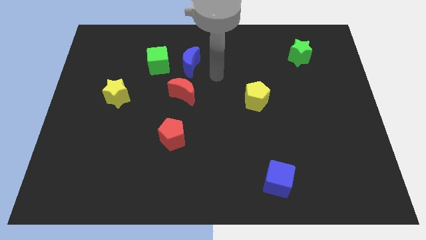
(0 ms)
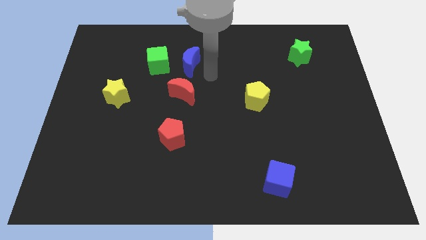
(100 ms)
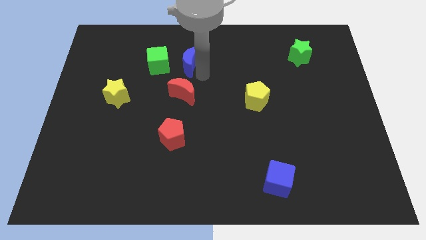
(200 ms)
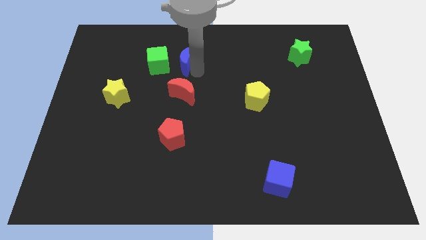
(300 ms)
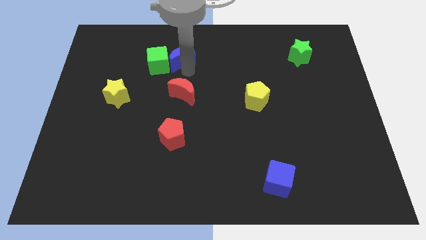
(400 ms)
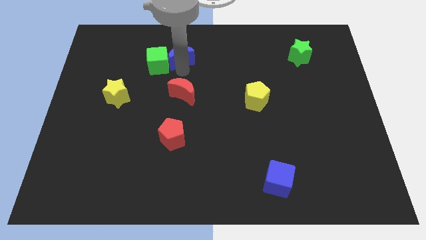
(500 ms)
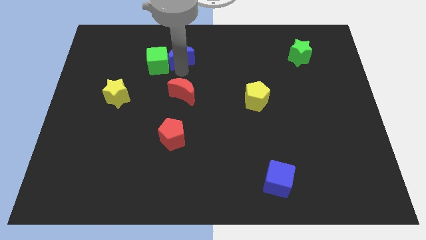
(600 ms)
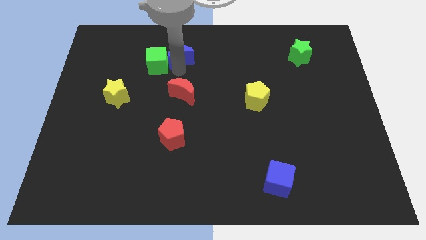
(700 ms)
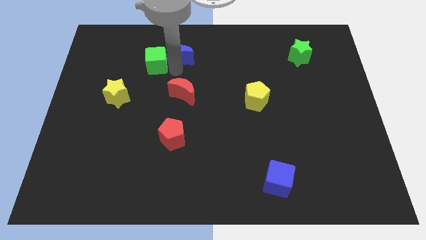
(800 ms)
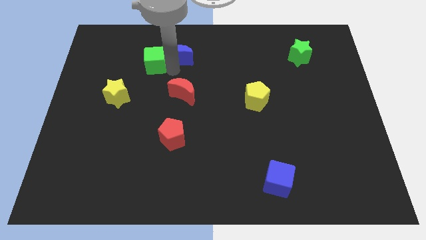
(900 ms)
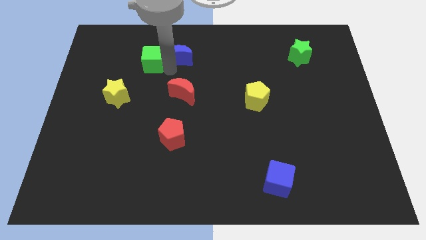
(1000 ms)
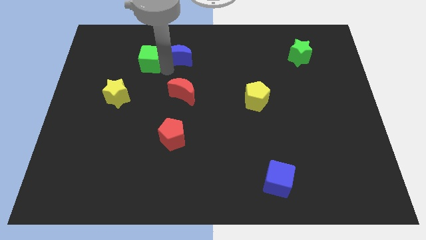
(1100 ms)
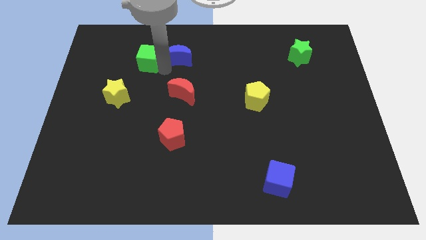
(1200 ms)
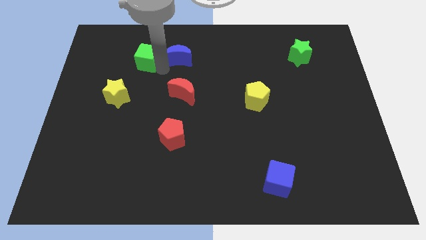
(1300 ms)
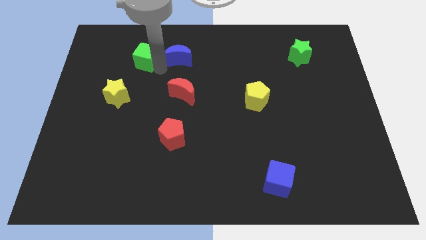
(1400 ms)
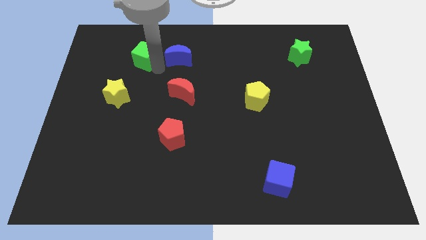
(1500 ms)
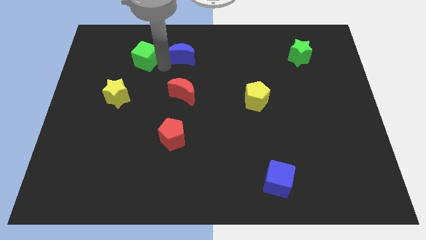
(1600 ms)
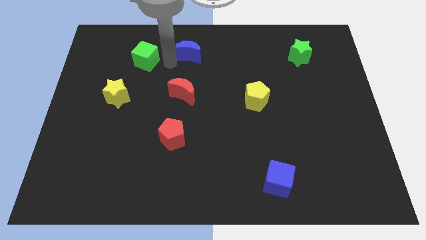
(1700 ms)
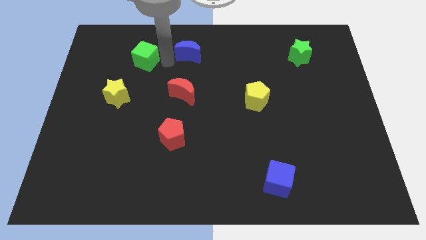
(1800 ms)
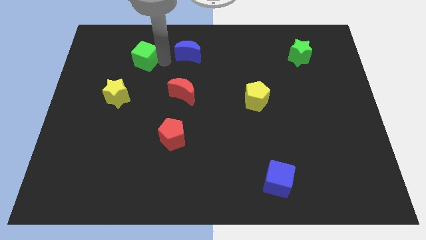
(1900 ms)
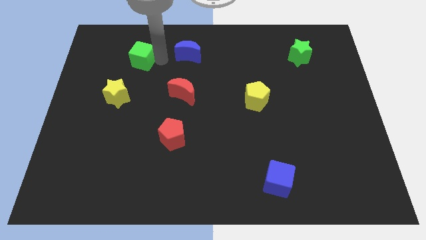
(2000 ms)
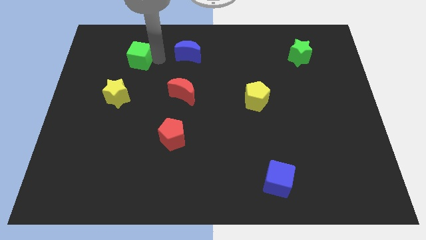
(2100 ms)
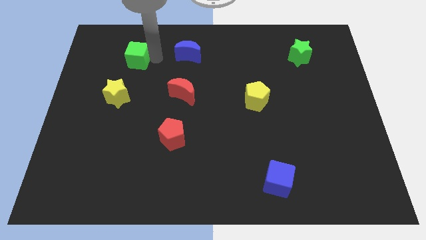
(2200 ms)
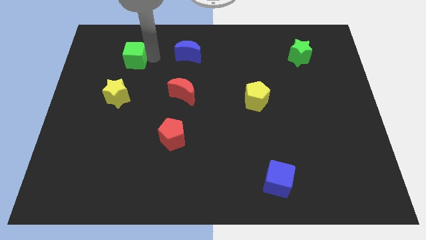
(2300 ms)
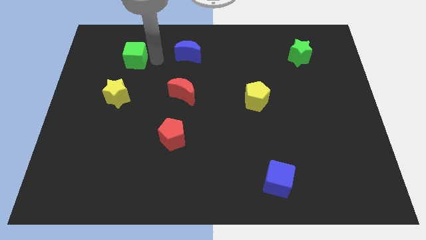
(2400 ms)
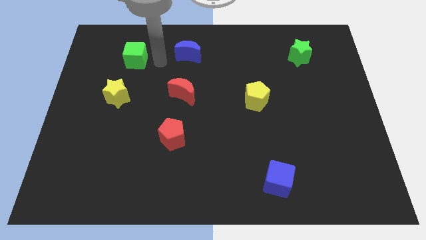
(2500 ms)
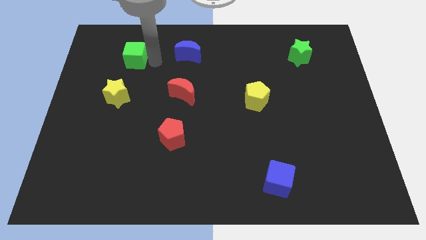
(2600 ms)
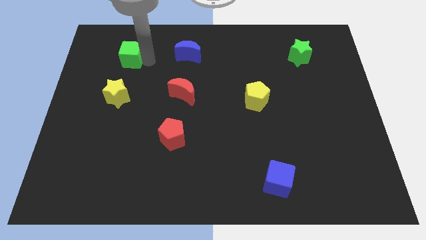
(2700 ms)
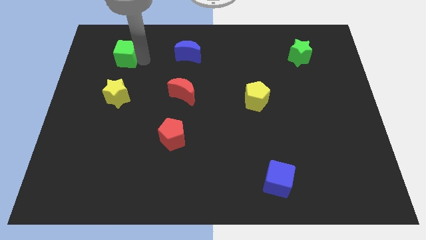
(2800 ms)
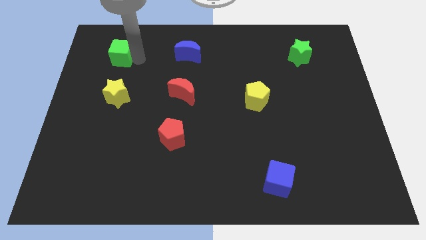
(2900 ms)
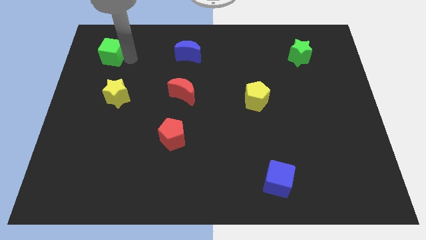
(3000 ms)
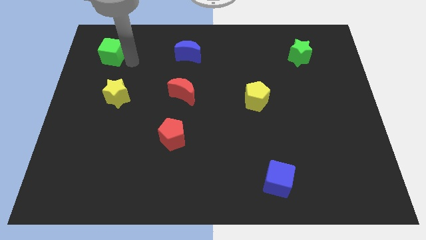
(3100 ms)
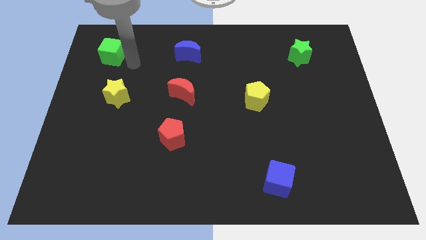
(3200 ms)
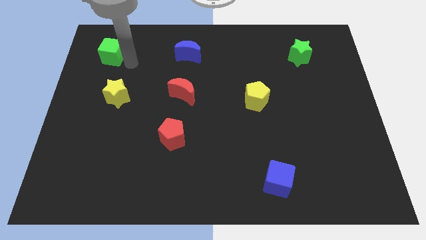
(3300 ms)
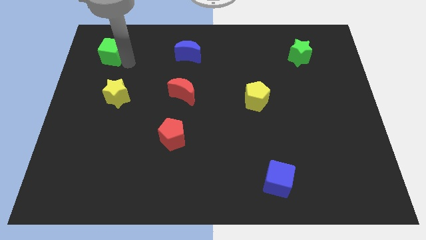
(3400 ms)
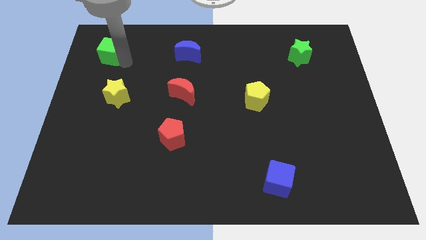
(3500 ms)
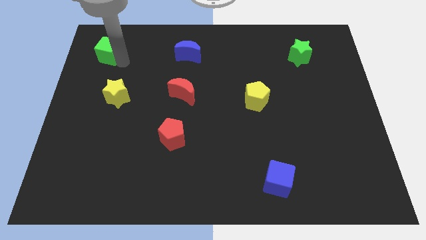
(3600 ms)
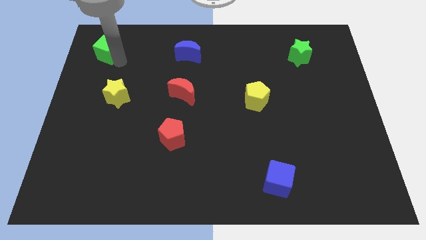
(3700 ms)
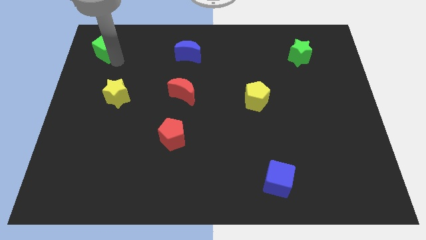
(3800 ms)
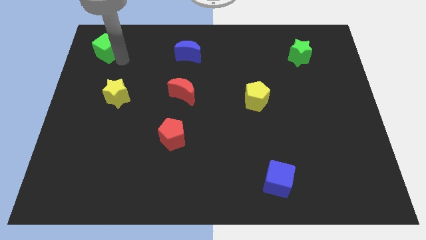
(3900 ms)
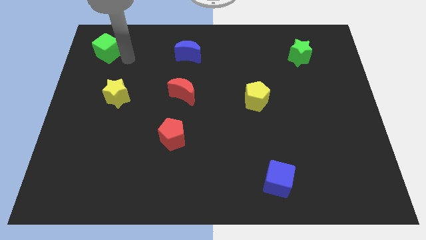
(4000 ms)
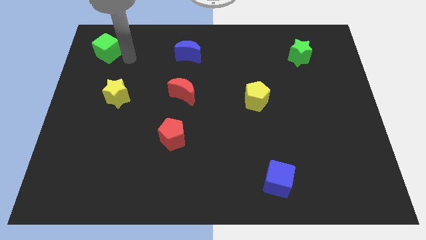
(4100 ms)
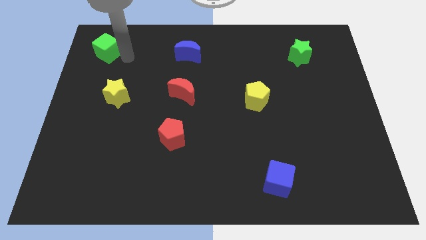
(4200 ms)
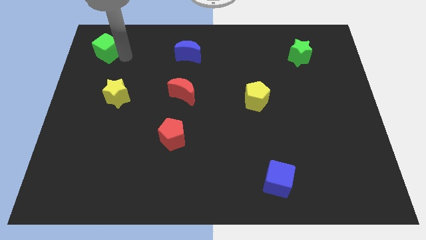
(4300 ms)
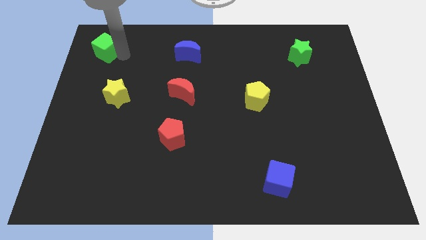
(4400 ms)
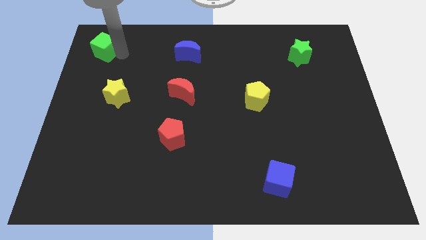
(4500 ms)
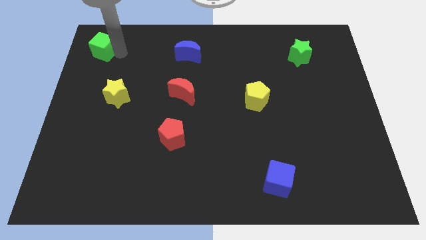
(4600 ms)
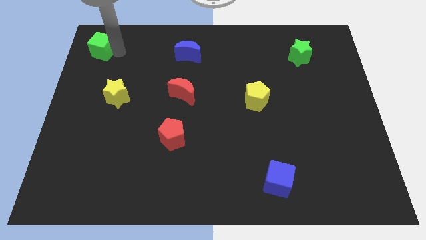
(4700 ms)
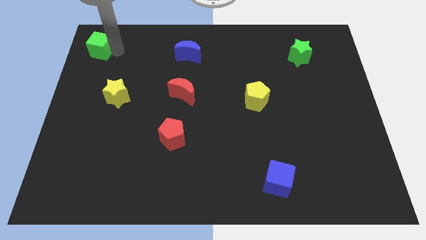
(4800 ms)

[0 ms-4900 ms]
slide the green cube to the top left of the board

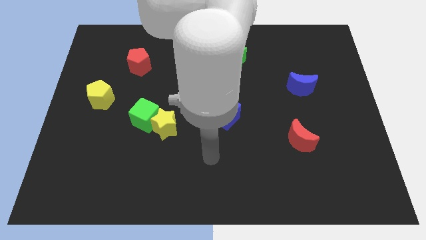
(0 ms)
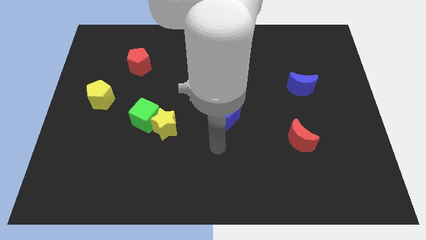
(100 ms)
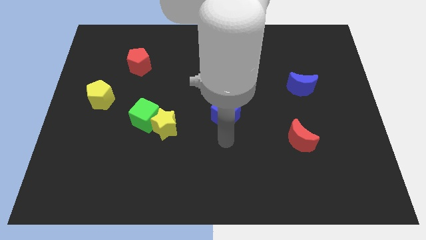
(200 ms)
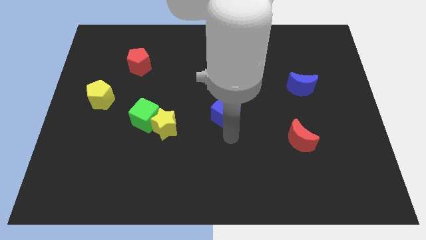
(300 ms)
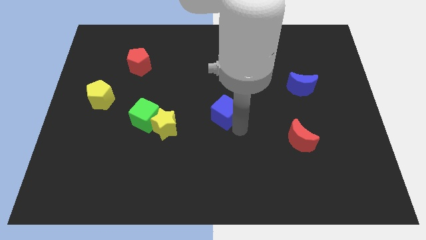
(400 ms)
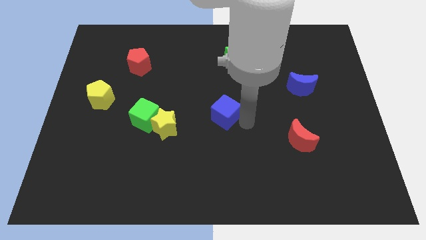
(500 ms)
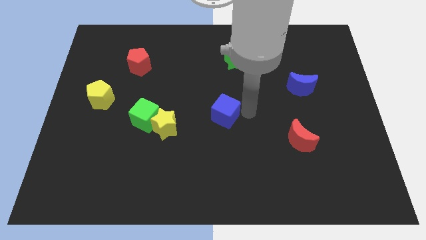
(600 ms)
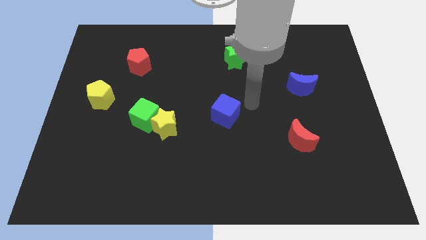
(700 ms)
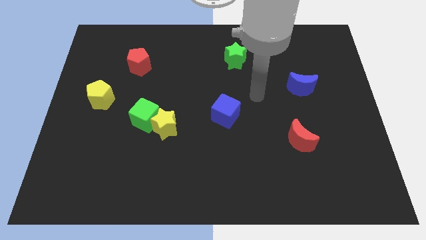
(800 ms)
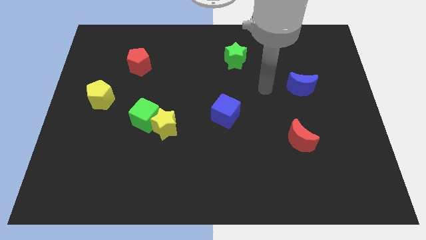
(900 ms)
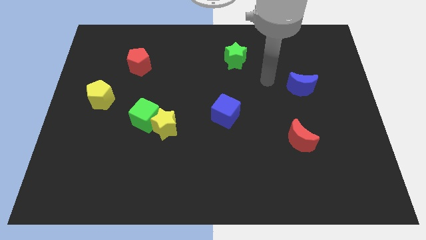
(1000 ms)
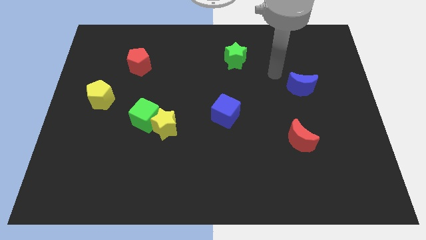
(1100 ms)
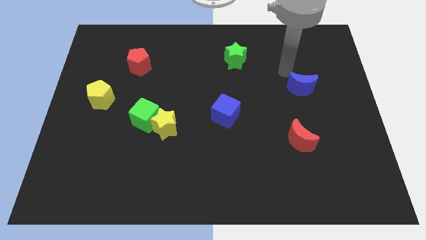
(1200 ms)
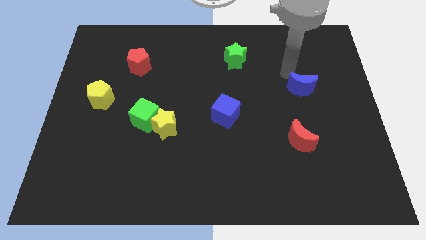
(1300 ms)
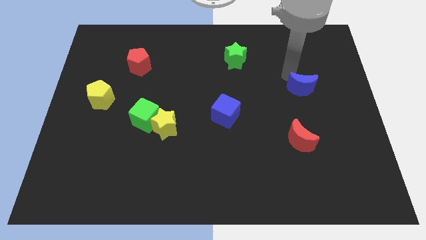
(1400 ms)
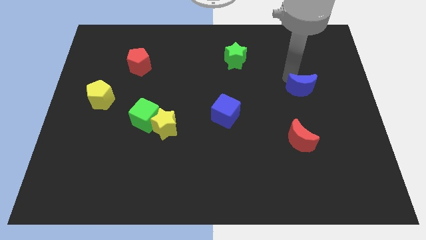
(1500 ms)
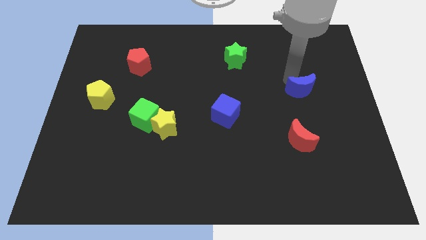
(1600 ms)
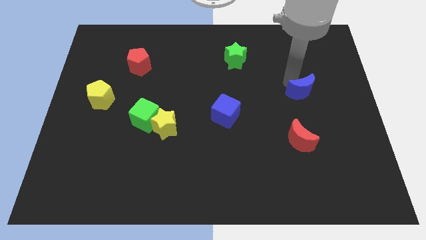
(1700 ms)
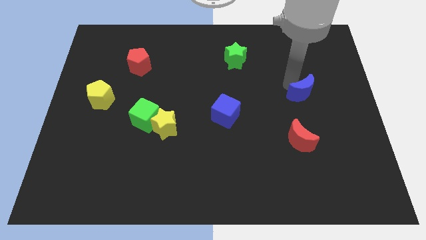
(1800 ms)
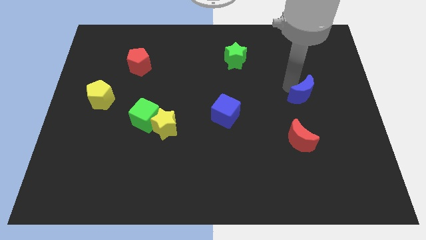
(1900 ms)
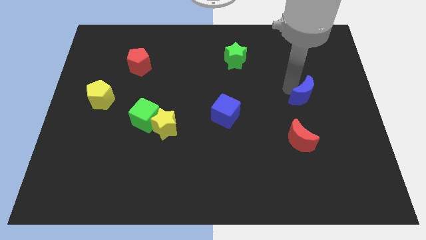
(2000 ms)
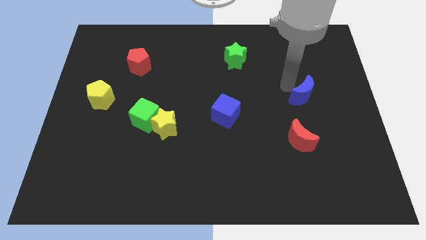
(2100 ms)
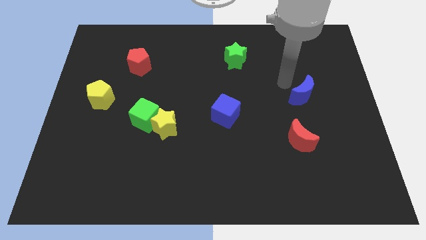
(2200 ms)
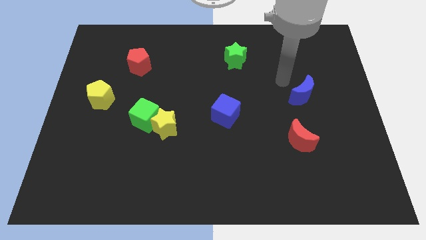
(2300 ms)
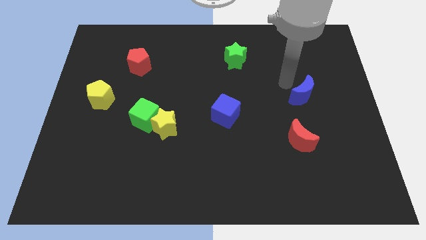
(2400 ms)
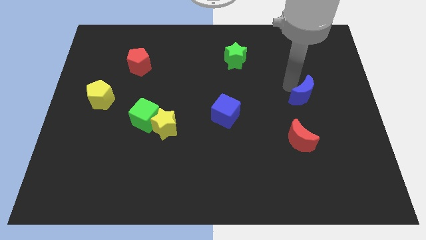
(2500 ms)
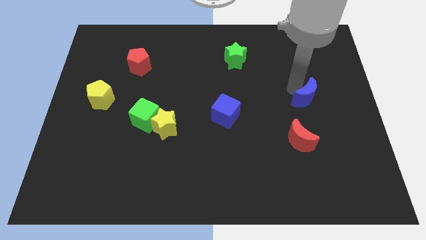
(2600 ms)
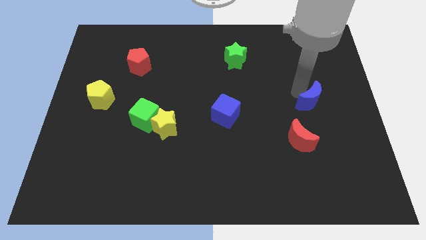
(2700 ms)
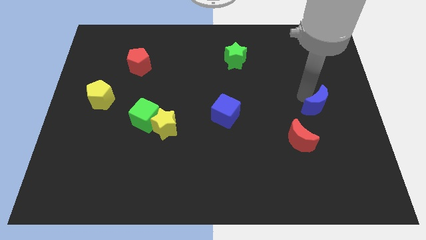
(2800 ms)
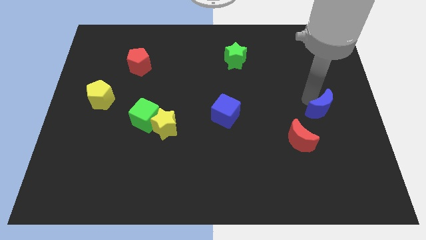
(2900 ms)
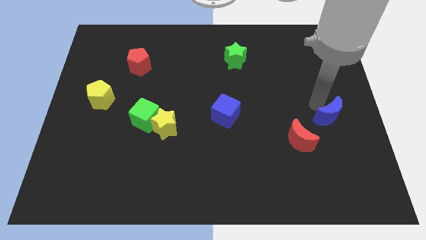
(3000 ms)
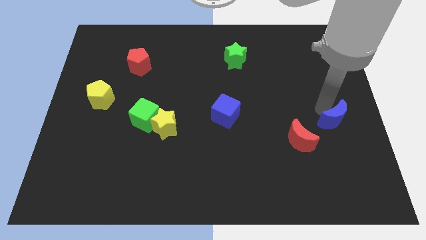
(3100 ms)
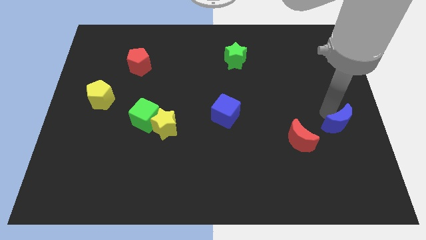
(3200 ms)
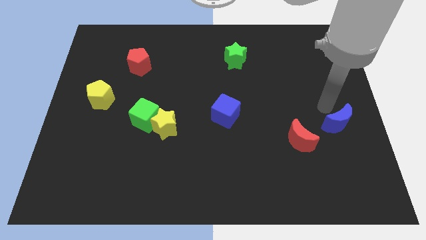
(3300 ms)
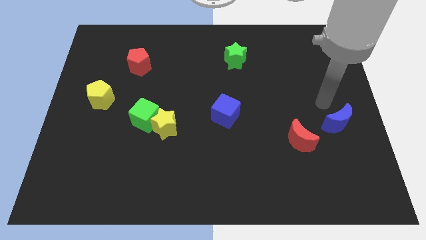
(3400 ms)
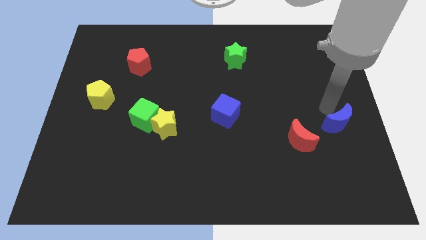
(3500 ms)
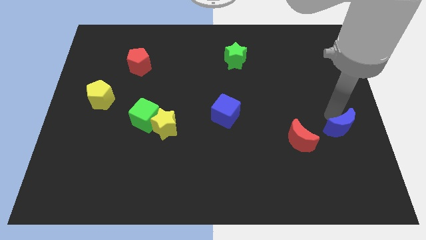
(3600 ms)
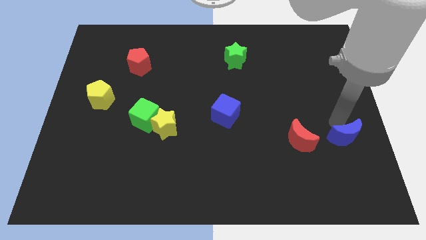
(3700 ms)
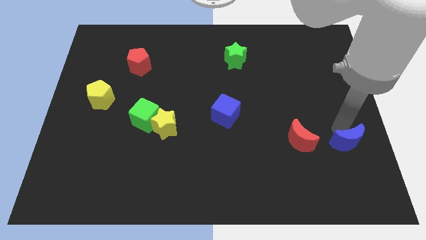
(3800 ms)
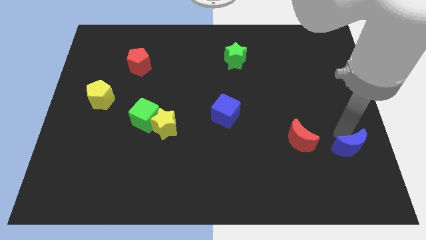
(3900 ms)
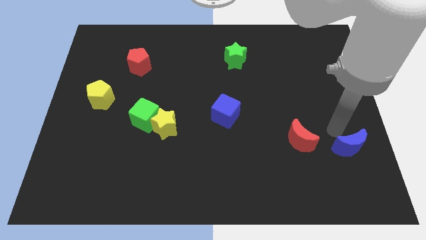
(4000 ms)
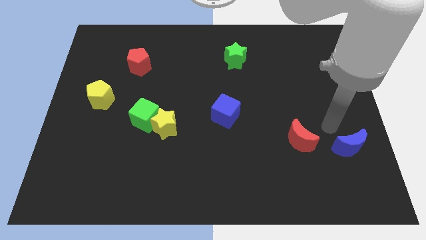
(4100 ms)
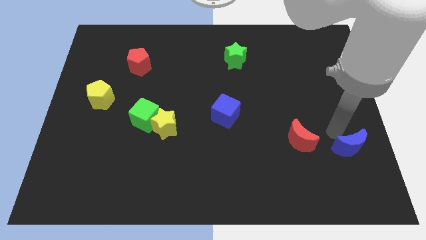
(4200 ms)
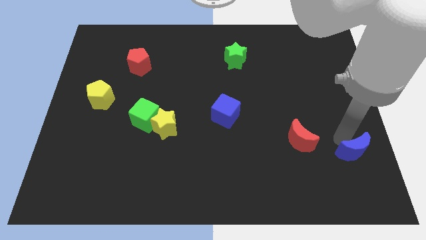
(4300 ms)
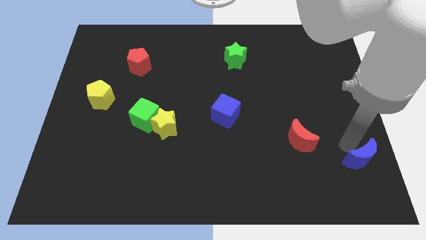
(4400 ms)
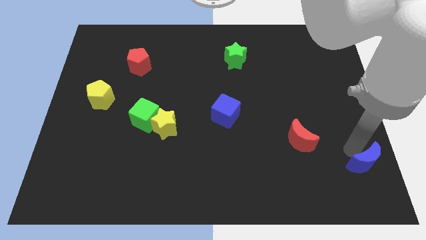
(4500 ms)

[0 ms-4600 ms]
put the blue moon to the bottom right
